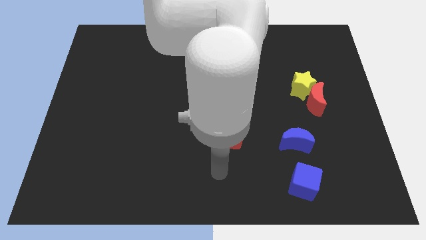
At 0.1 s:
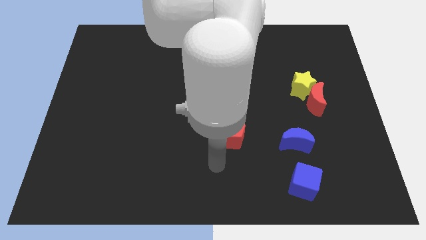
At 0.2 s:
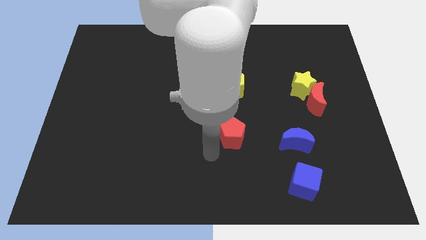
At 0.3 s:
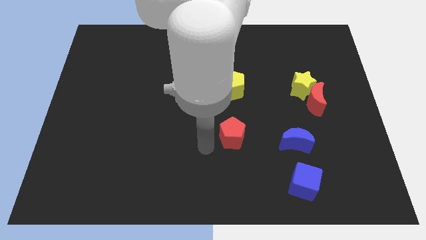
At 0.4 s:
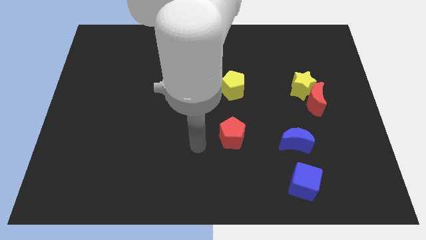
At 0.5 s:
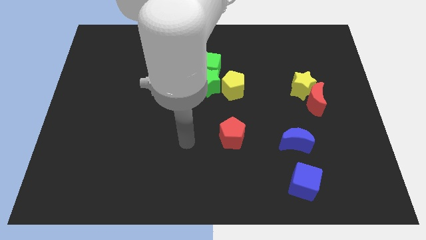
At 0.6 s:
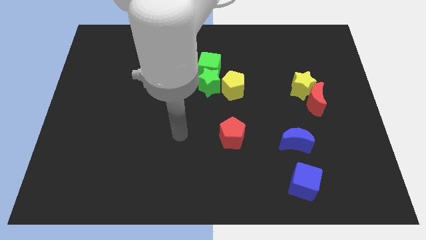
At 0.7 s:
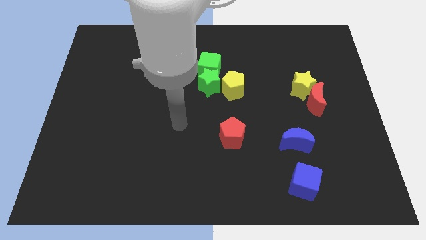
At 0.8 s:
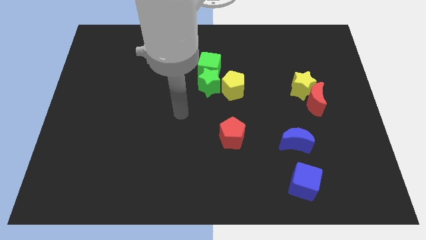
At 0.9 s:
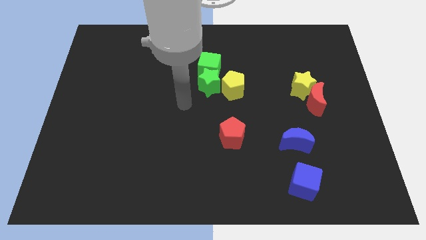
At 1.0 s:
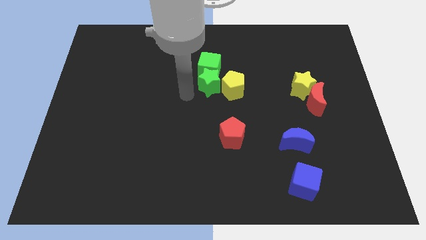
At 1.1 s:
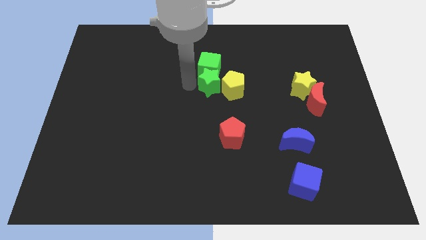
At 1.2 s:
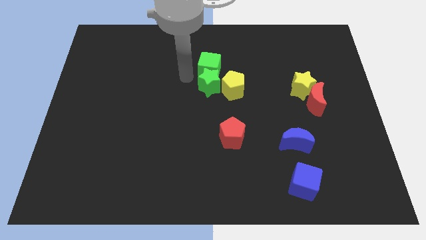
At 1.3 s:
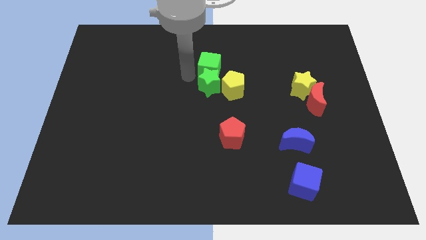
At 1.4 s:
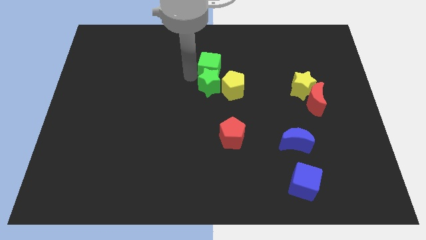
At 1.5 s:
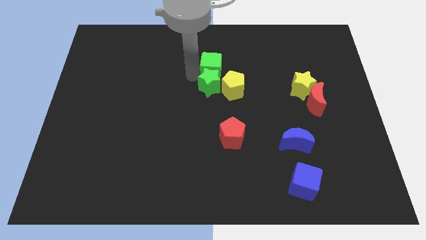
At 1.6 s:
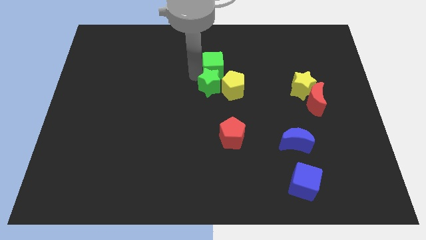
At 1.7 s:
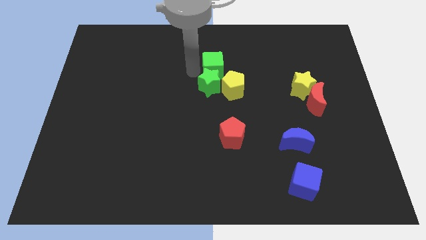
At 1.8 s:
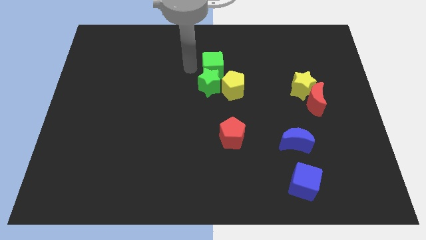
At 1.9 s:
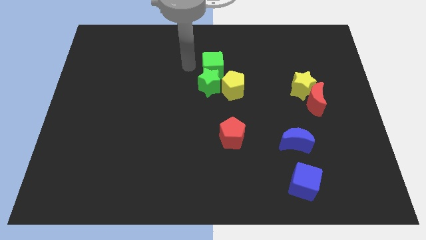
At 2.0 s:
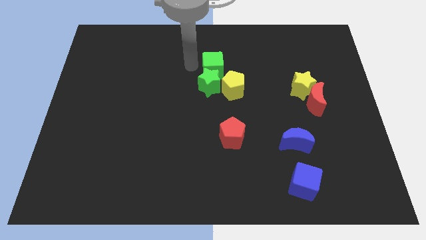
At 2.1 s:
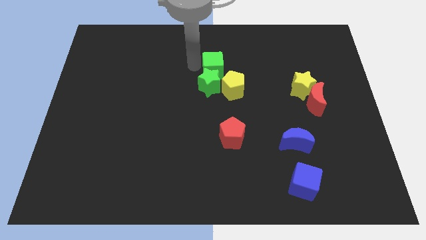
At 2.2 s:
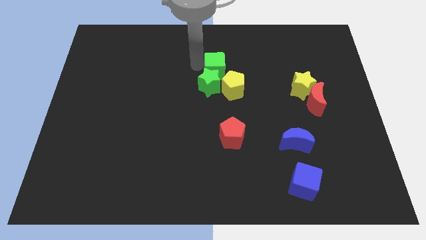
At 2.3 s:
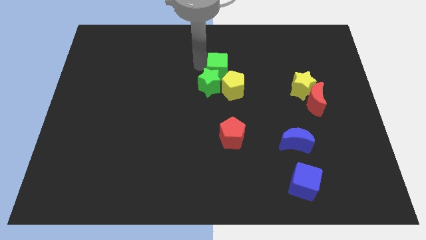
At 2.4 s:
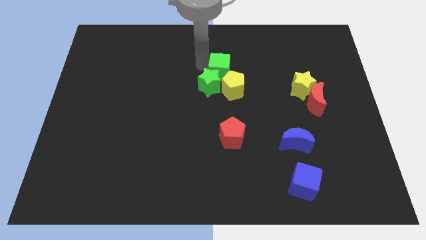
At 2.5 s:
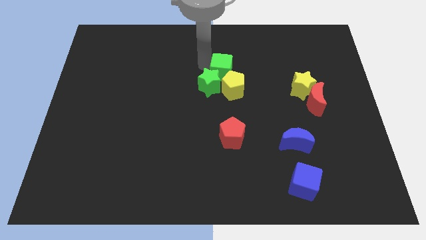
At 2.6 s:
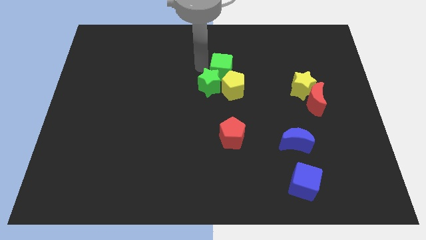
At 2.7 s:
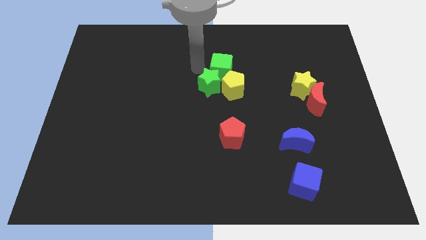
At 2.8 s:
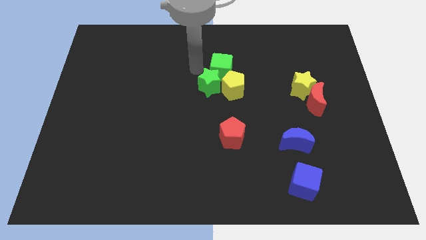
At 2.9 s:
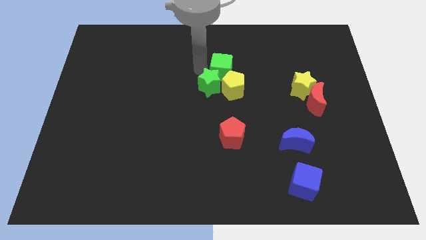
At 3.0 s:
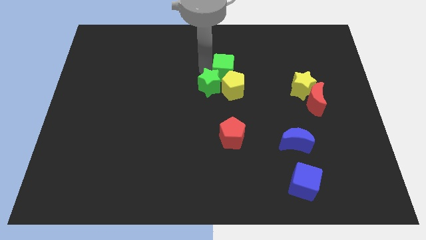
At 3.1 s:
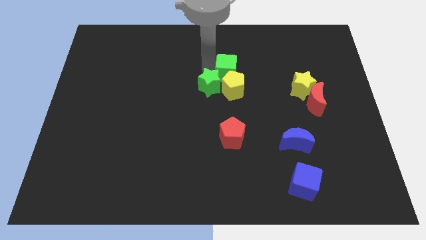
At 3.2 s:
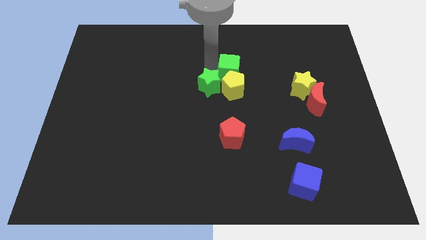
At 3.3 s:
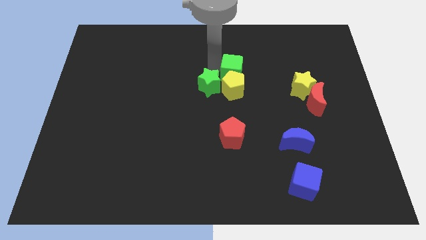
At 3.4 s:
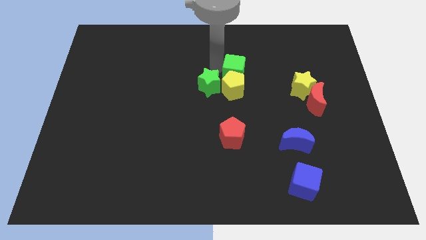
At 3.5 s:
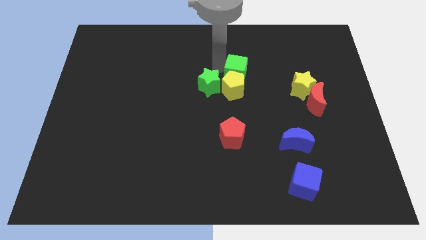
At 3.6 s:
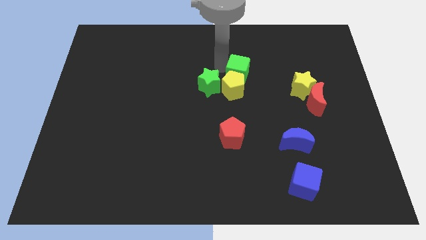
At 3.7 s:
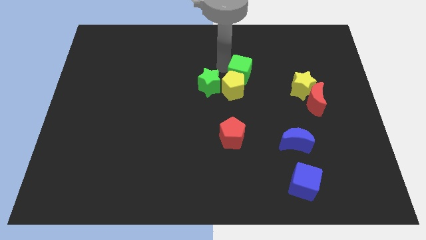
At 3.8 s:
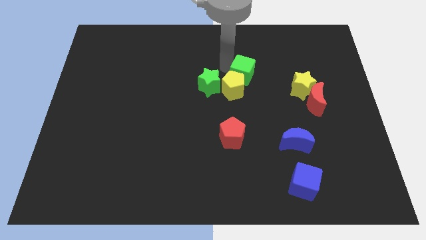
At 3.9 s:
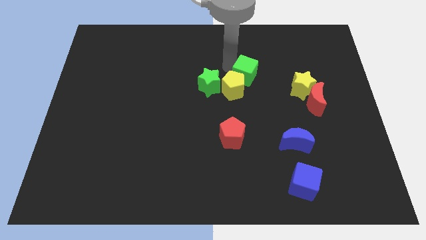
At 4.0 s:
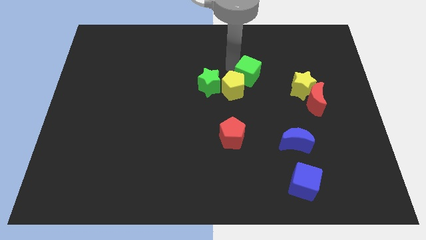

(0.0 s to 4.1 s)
move the green cube diagonally down and right a little

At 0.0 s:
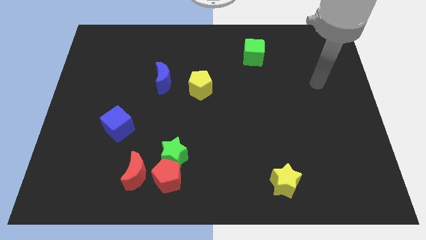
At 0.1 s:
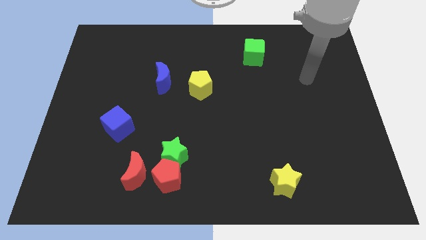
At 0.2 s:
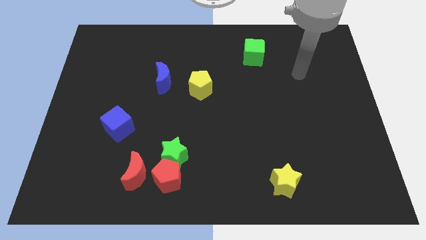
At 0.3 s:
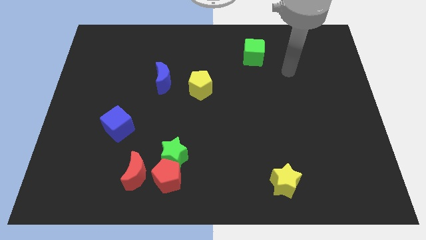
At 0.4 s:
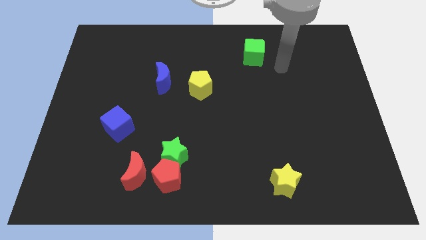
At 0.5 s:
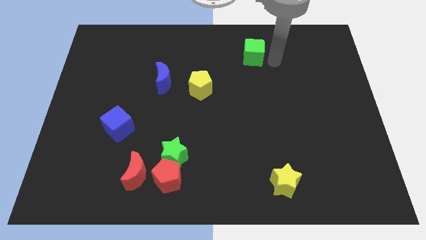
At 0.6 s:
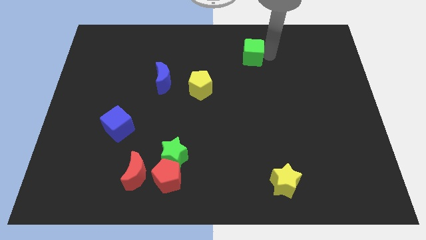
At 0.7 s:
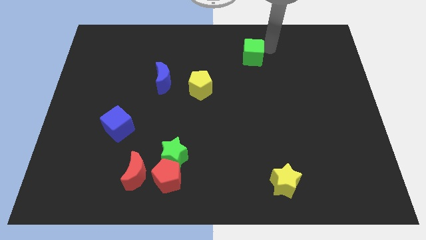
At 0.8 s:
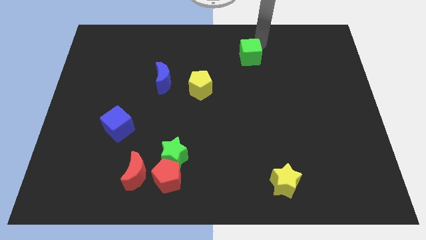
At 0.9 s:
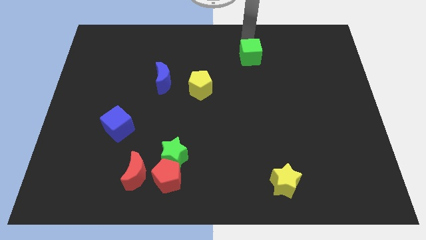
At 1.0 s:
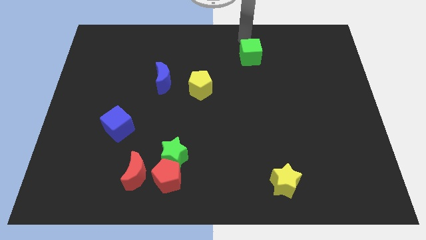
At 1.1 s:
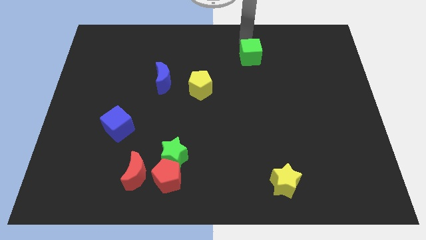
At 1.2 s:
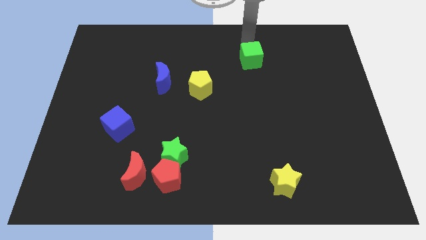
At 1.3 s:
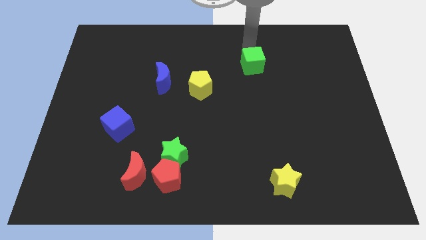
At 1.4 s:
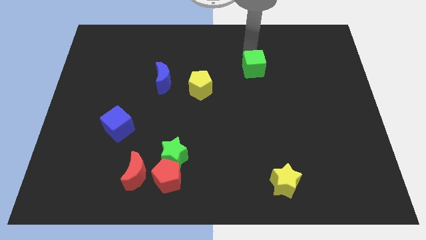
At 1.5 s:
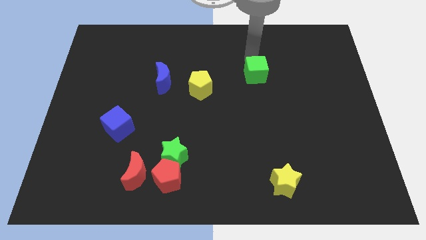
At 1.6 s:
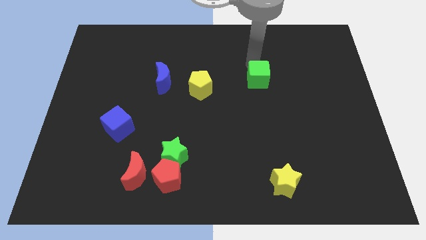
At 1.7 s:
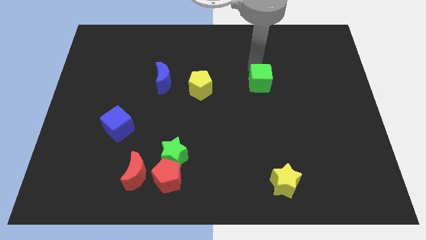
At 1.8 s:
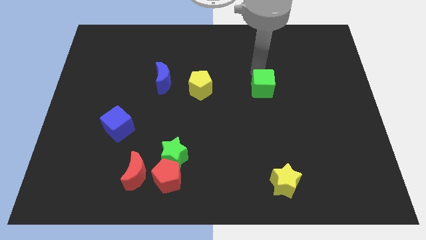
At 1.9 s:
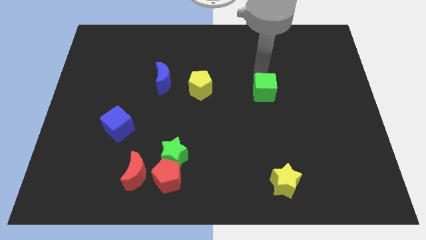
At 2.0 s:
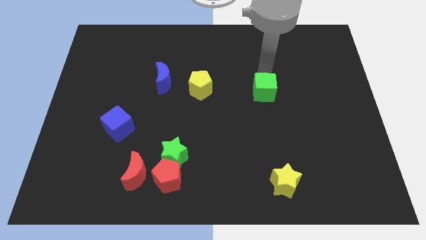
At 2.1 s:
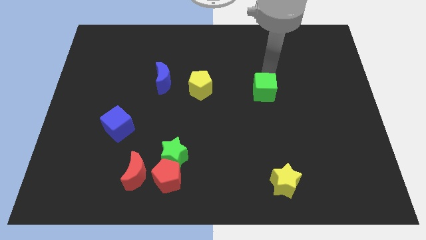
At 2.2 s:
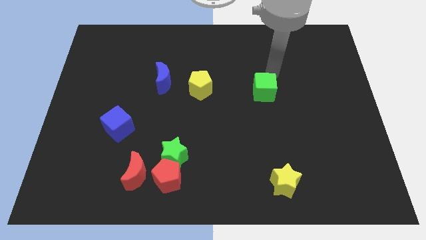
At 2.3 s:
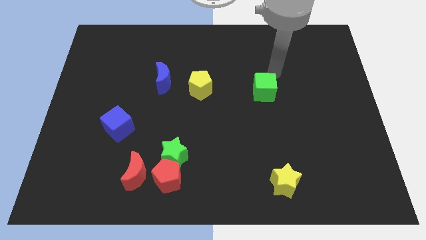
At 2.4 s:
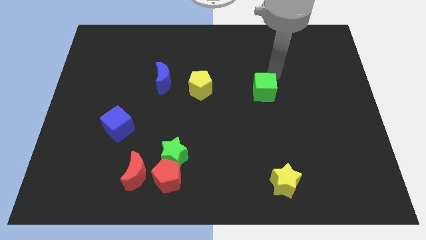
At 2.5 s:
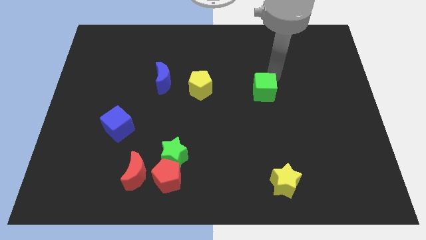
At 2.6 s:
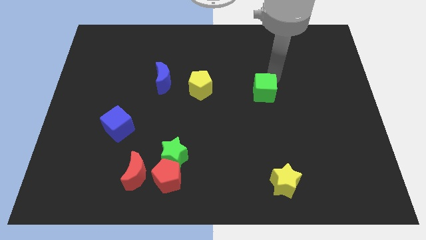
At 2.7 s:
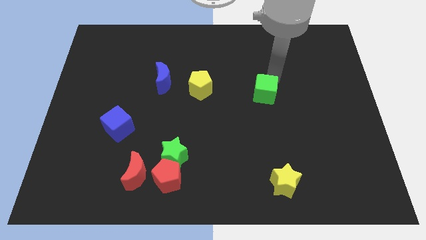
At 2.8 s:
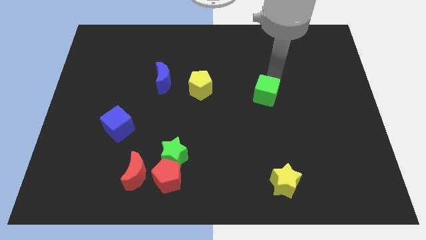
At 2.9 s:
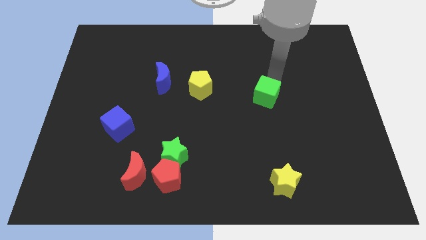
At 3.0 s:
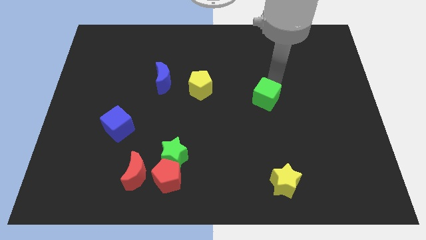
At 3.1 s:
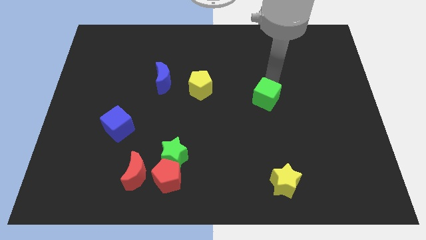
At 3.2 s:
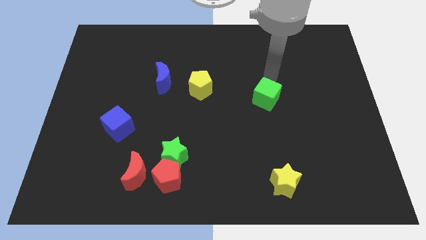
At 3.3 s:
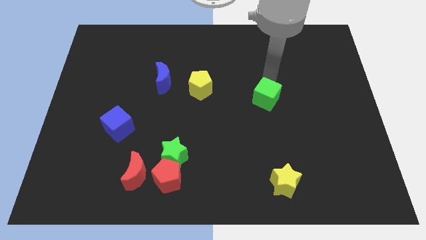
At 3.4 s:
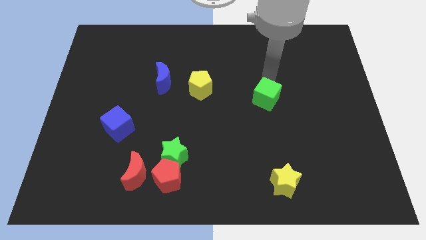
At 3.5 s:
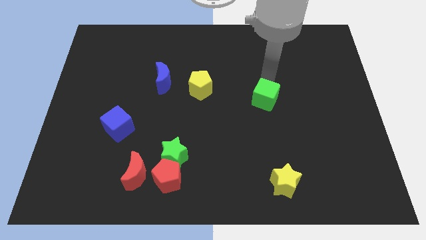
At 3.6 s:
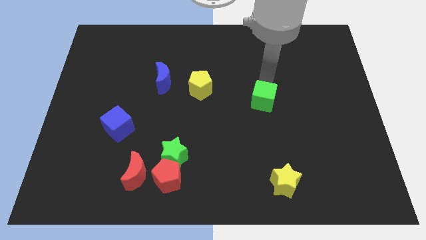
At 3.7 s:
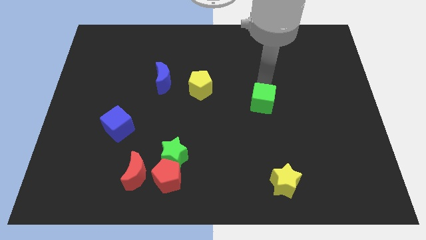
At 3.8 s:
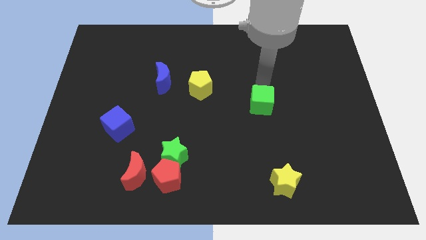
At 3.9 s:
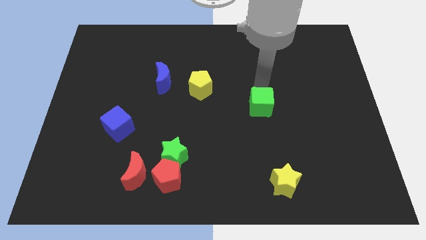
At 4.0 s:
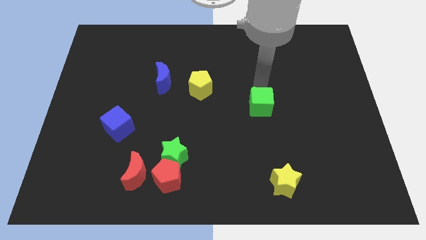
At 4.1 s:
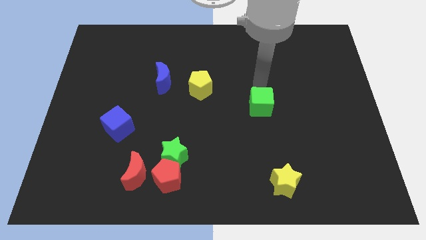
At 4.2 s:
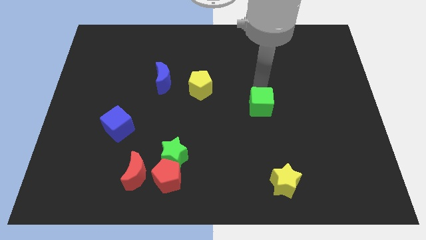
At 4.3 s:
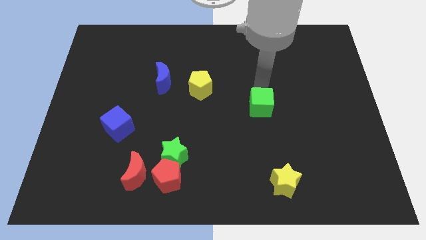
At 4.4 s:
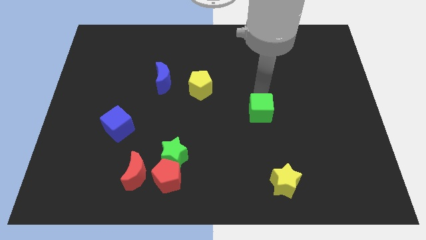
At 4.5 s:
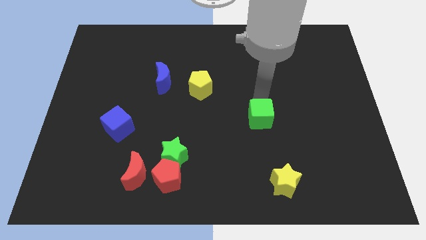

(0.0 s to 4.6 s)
slide the green cube down
